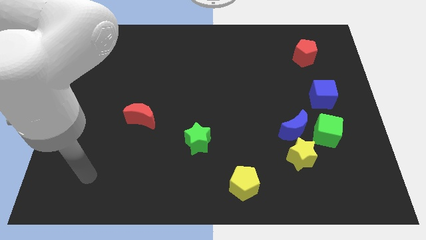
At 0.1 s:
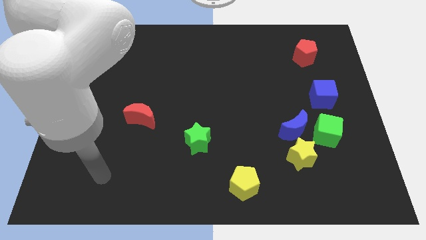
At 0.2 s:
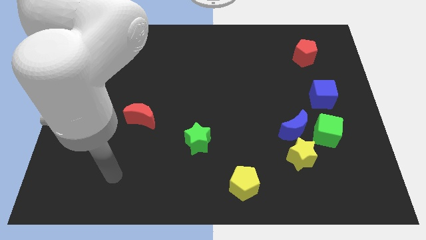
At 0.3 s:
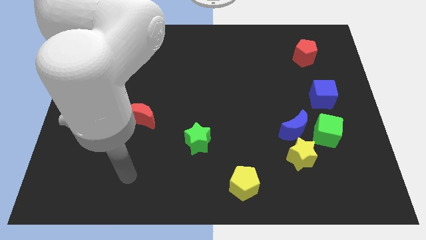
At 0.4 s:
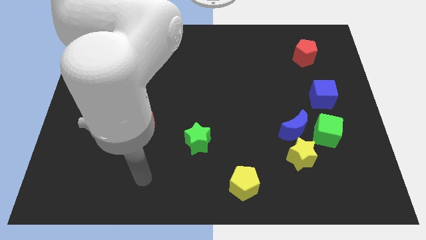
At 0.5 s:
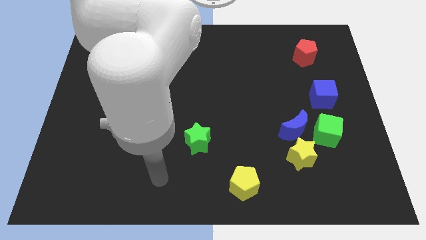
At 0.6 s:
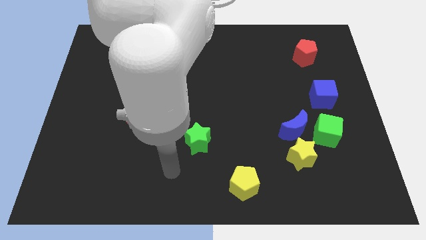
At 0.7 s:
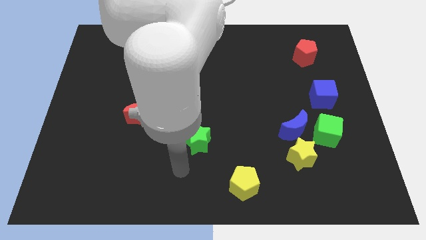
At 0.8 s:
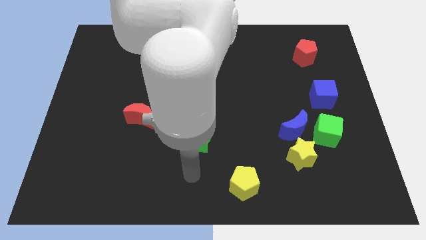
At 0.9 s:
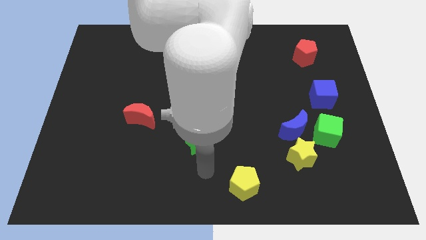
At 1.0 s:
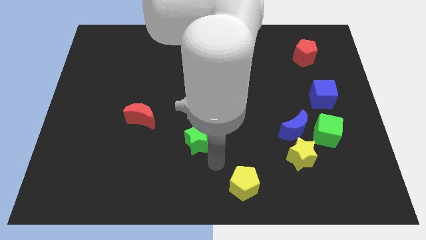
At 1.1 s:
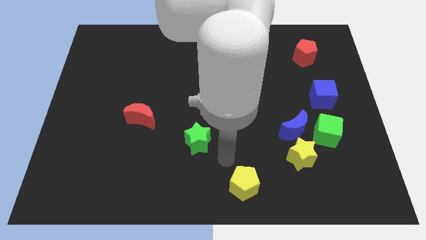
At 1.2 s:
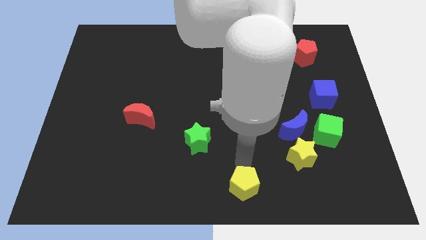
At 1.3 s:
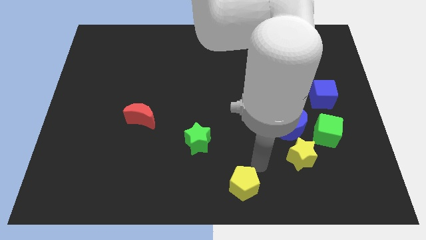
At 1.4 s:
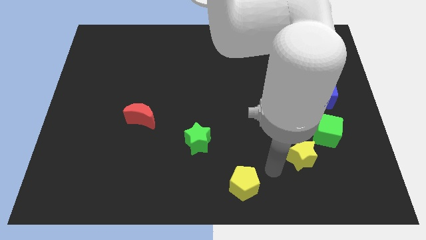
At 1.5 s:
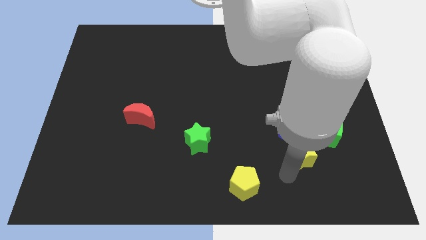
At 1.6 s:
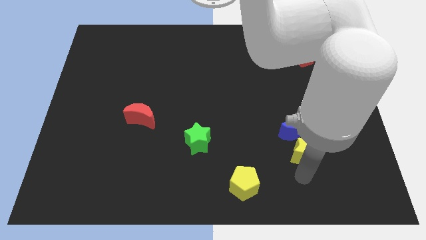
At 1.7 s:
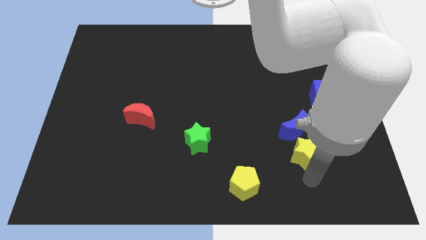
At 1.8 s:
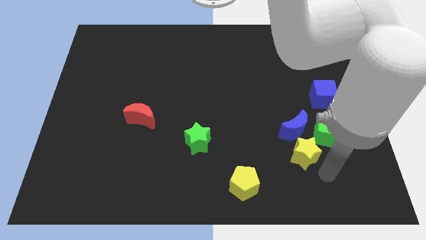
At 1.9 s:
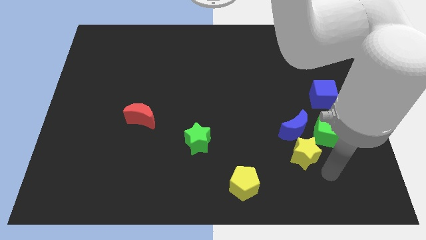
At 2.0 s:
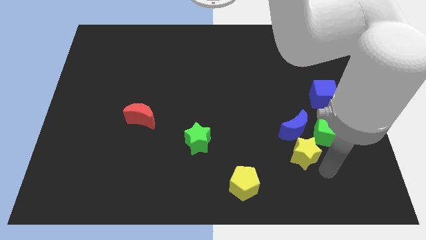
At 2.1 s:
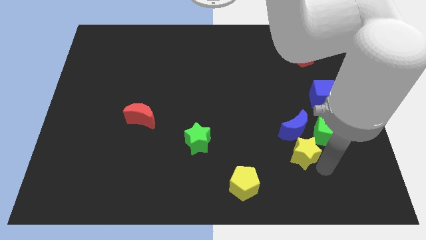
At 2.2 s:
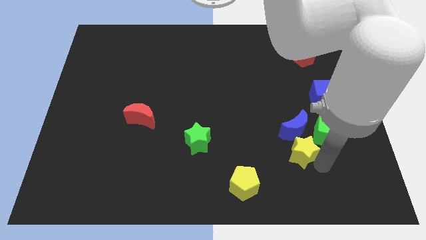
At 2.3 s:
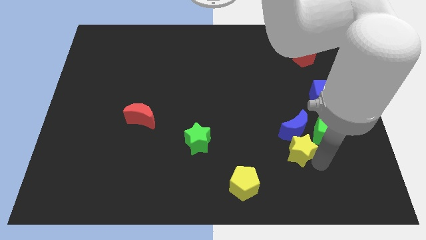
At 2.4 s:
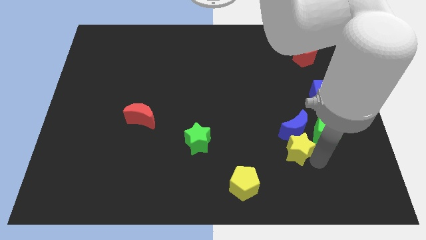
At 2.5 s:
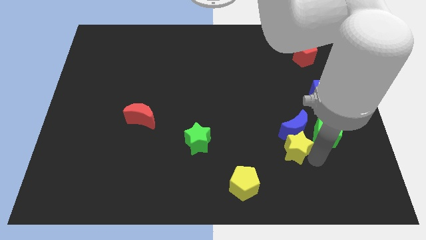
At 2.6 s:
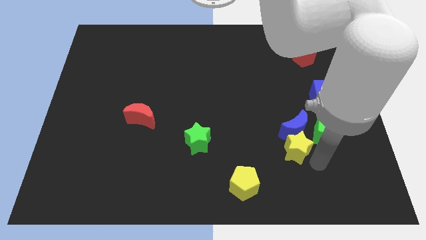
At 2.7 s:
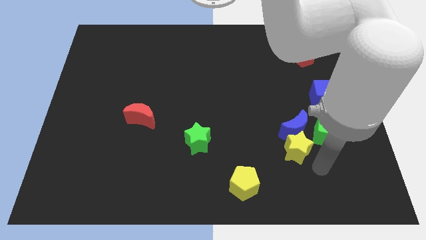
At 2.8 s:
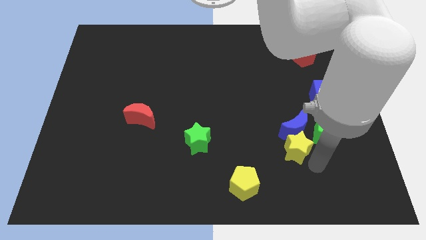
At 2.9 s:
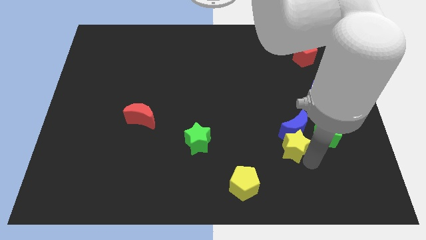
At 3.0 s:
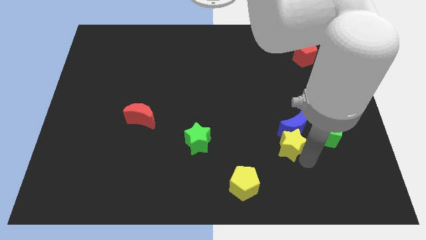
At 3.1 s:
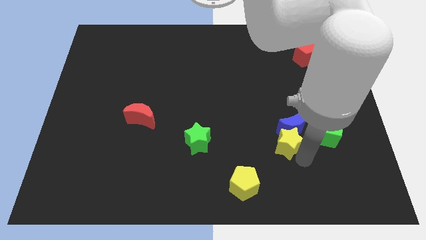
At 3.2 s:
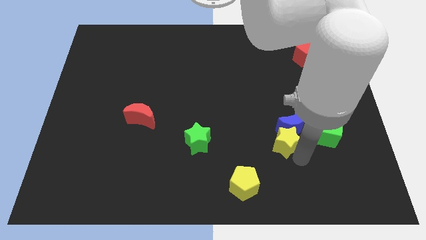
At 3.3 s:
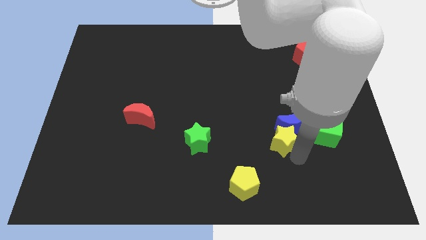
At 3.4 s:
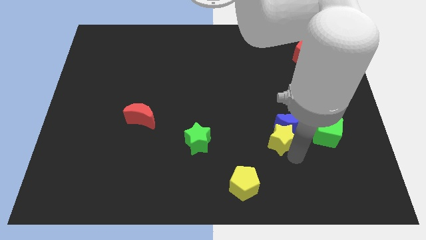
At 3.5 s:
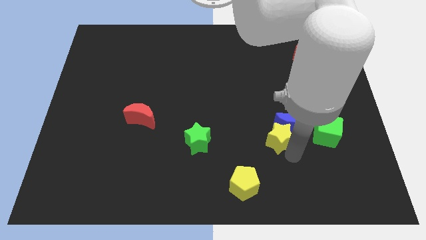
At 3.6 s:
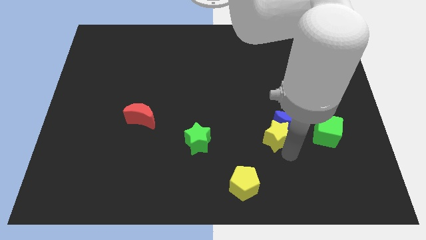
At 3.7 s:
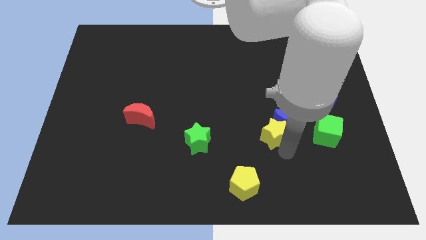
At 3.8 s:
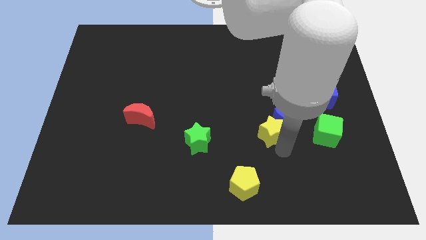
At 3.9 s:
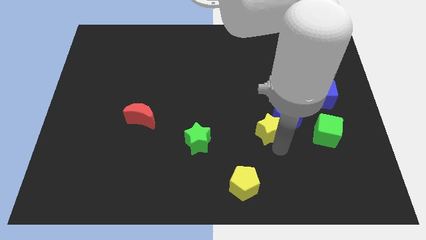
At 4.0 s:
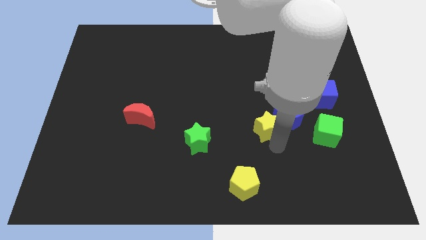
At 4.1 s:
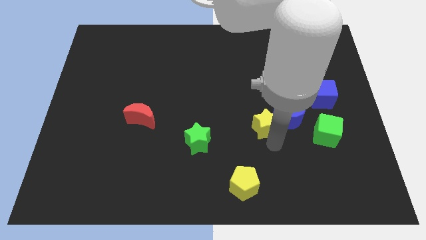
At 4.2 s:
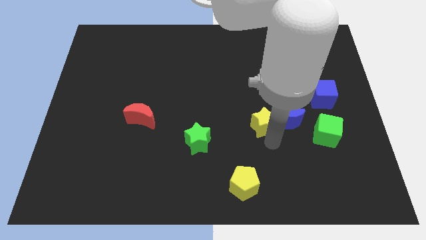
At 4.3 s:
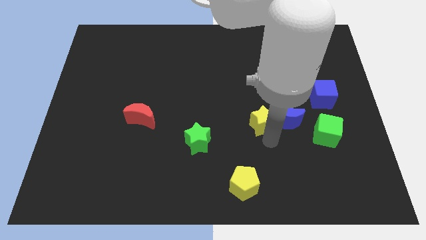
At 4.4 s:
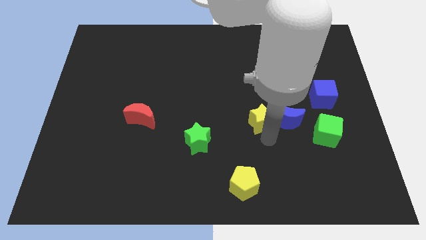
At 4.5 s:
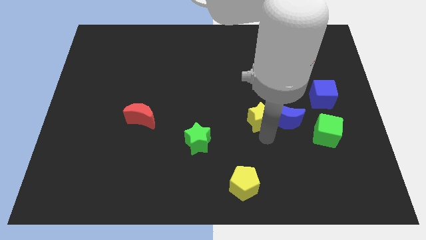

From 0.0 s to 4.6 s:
move the yellow star a bit up

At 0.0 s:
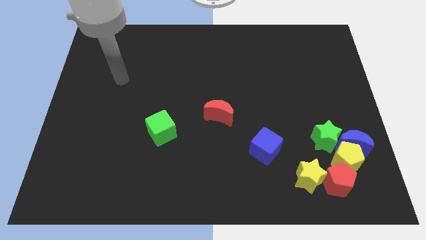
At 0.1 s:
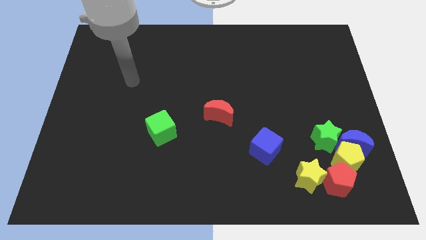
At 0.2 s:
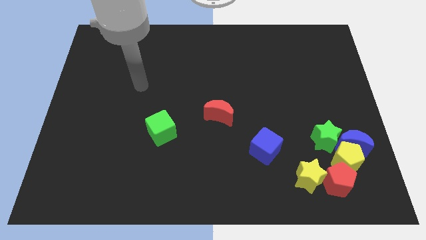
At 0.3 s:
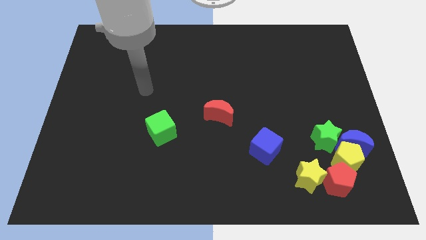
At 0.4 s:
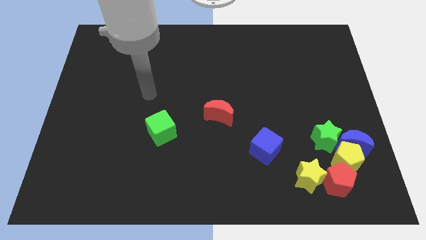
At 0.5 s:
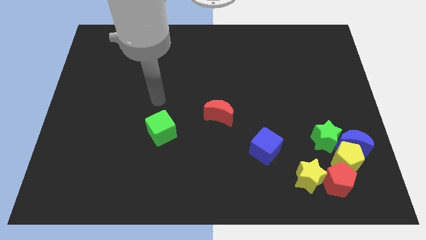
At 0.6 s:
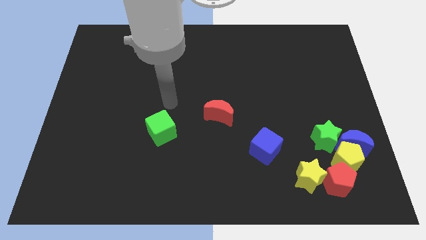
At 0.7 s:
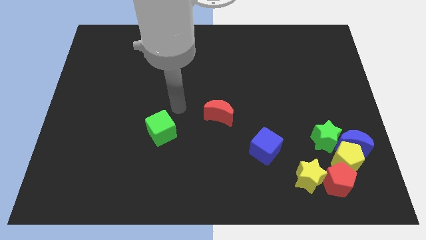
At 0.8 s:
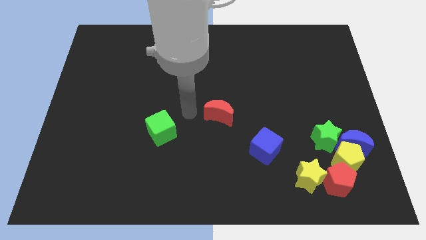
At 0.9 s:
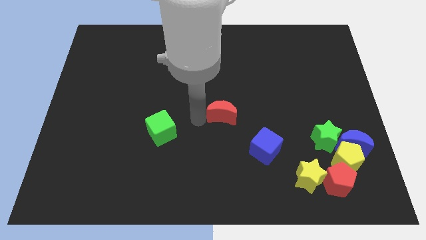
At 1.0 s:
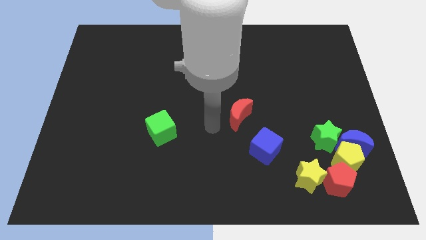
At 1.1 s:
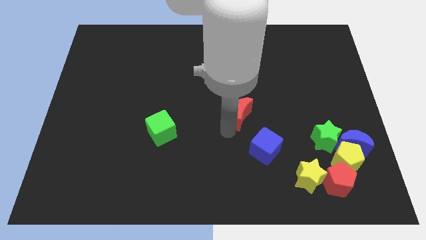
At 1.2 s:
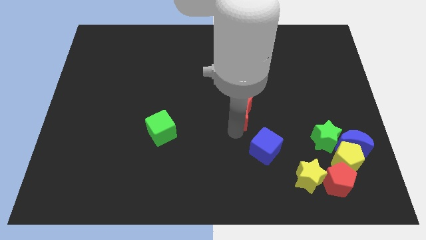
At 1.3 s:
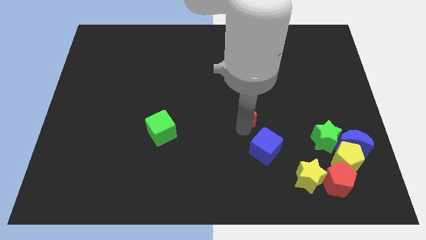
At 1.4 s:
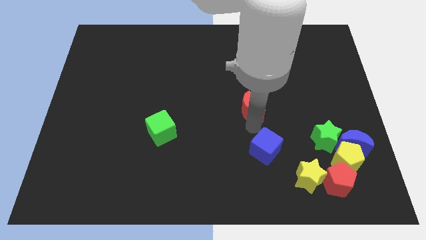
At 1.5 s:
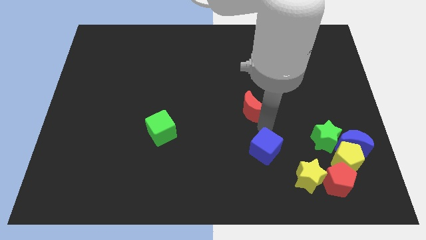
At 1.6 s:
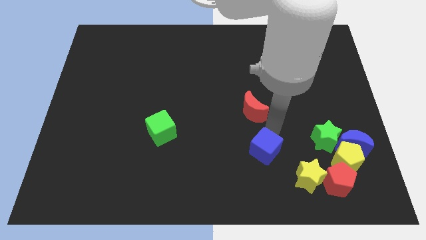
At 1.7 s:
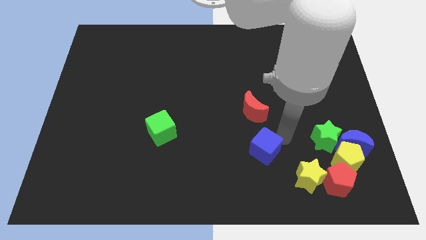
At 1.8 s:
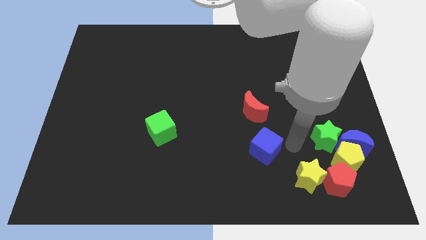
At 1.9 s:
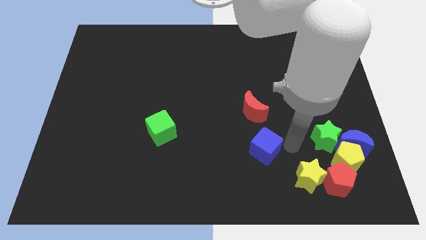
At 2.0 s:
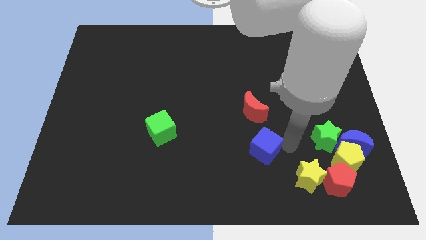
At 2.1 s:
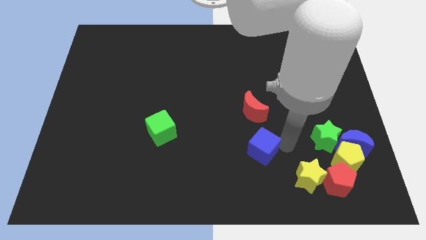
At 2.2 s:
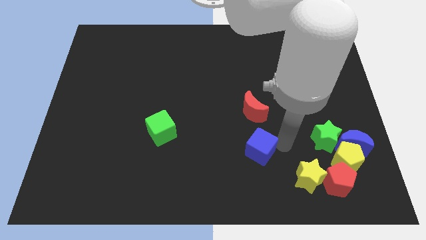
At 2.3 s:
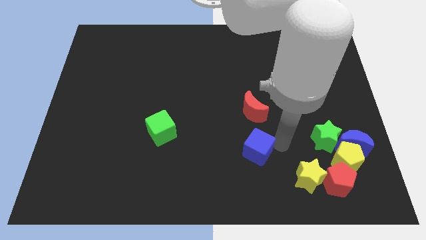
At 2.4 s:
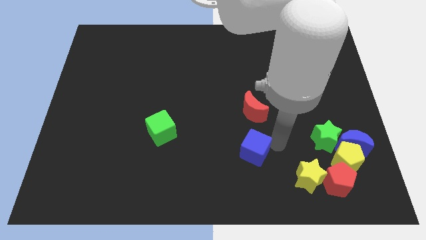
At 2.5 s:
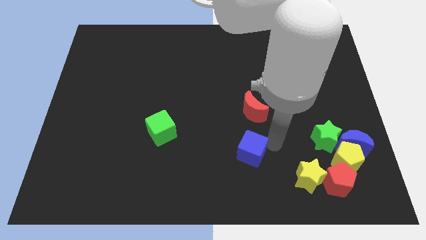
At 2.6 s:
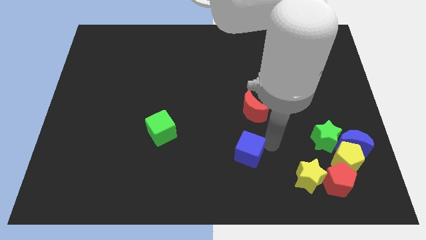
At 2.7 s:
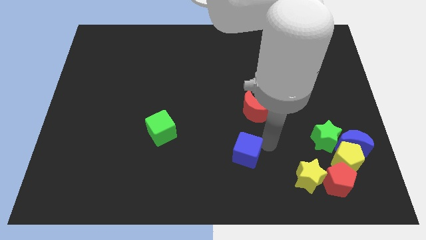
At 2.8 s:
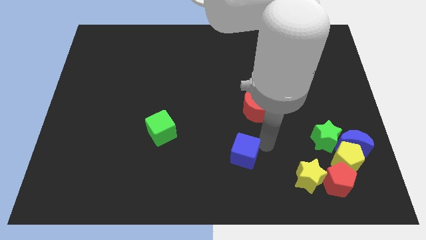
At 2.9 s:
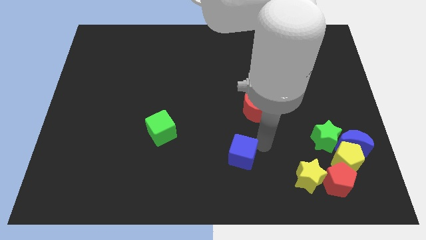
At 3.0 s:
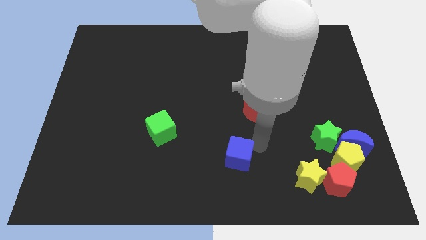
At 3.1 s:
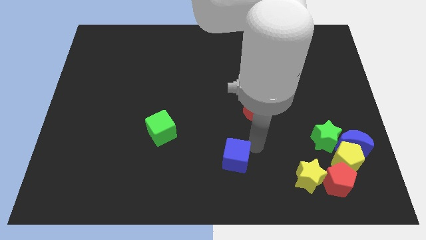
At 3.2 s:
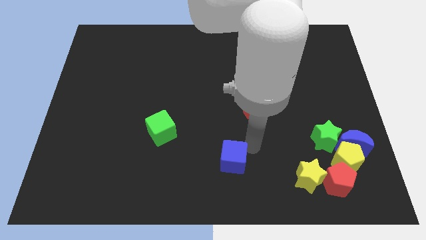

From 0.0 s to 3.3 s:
move the blue cube a little to the left

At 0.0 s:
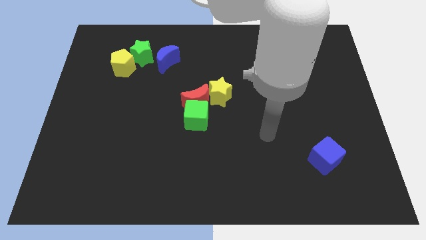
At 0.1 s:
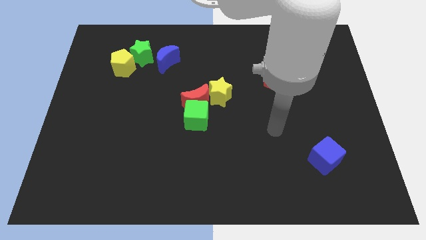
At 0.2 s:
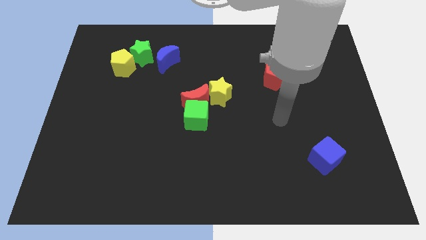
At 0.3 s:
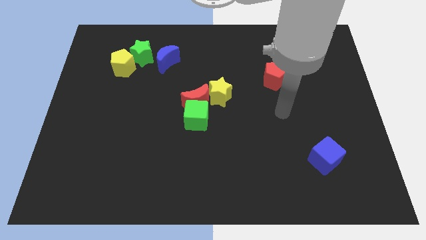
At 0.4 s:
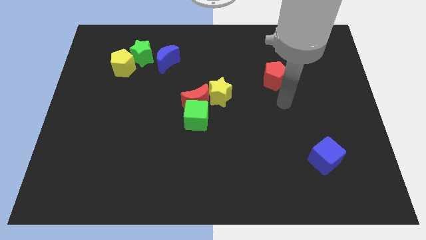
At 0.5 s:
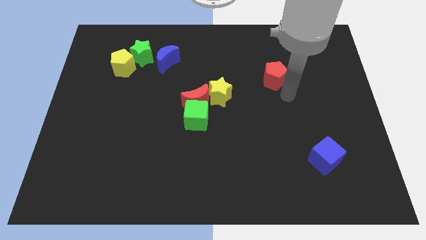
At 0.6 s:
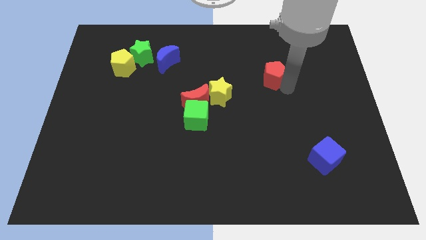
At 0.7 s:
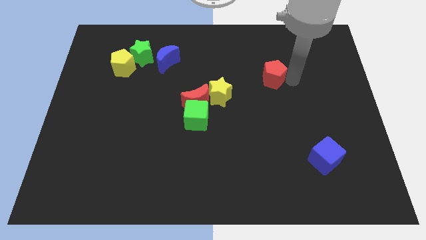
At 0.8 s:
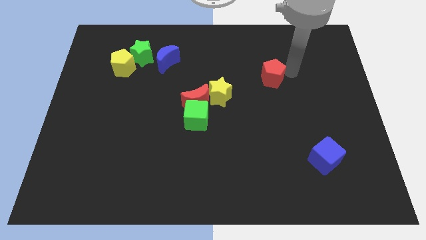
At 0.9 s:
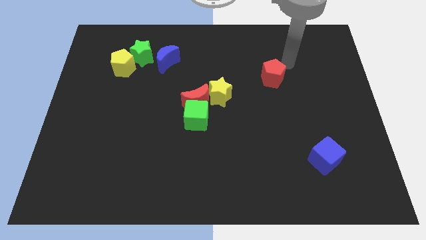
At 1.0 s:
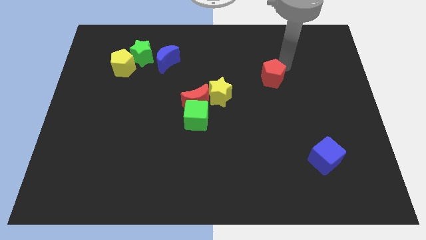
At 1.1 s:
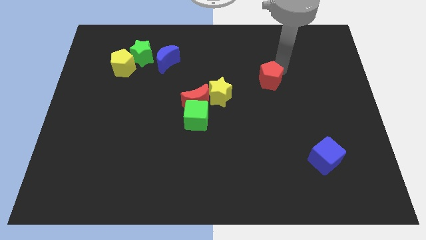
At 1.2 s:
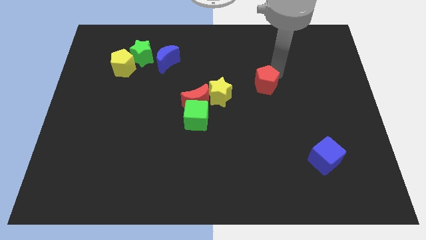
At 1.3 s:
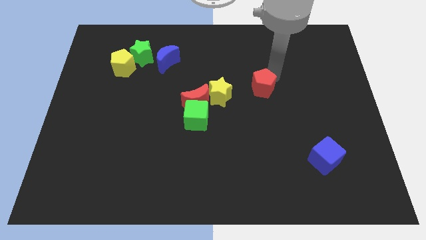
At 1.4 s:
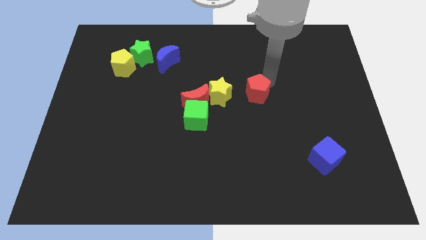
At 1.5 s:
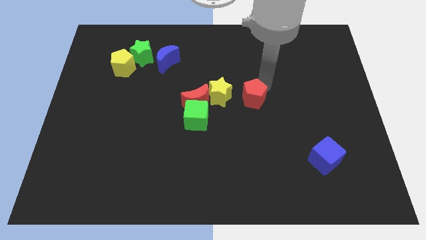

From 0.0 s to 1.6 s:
slide the red pentagon a bit downwards and left diagonally
